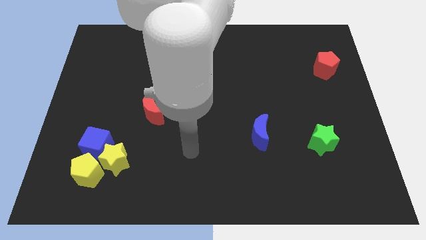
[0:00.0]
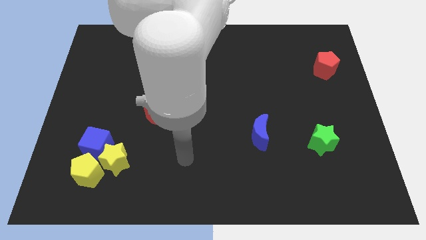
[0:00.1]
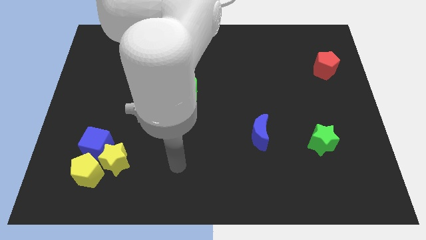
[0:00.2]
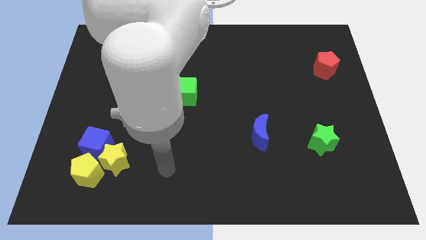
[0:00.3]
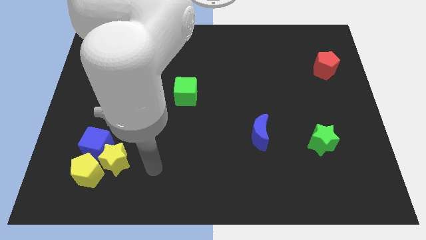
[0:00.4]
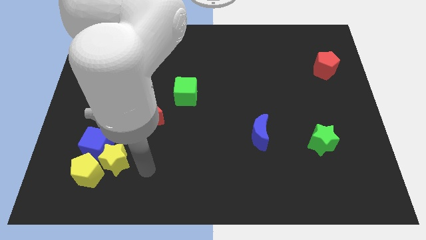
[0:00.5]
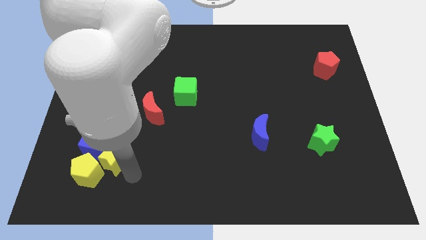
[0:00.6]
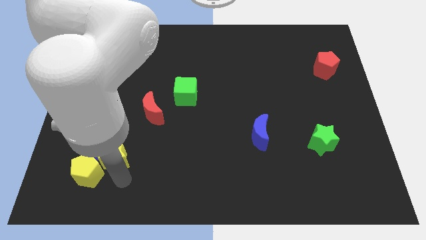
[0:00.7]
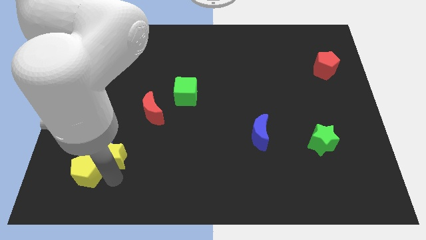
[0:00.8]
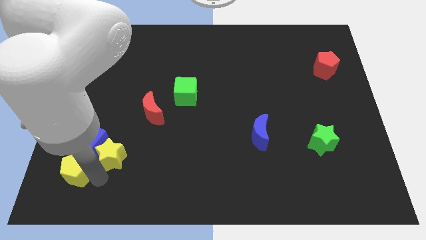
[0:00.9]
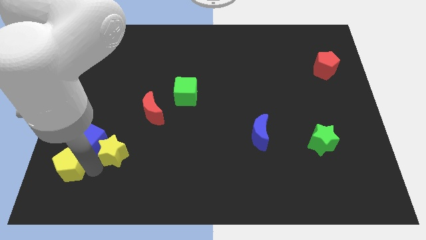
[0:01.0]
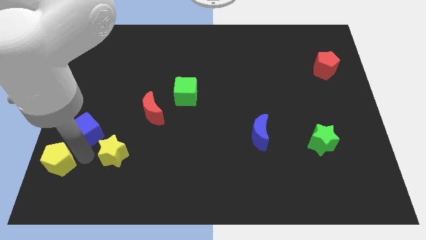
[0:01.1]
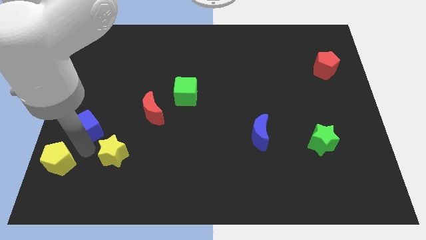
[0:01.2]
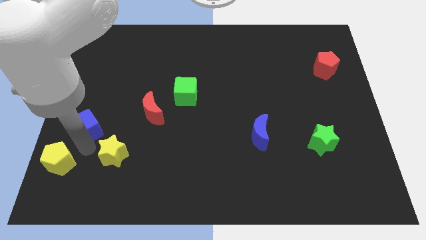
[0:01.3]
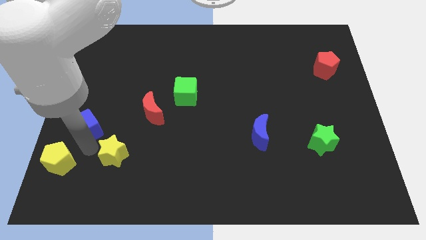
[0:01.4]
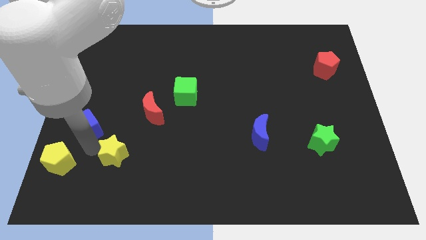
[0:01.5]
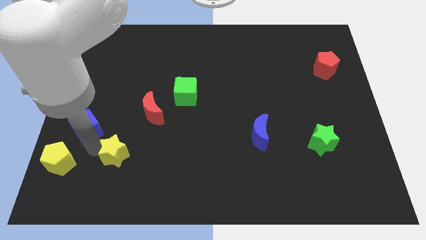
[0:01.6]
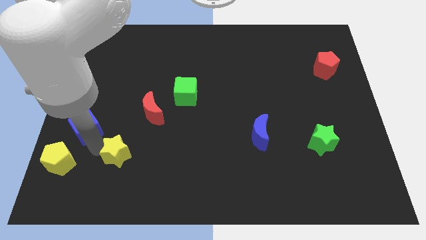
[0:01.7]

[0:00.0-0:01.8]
separate the yellow star from the yellow pentagon and blue cube

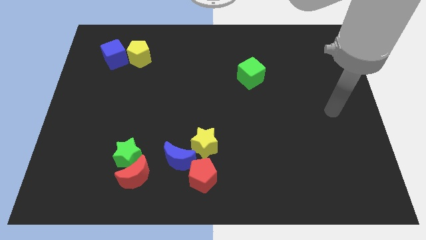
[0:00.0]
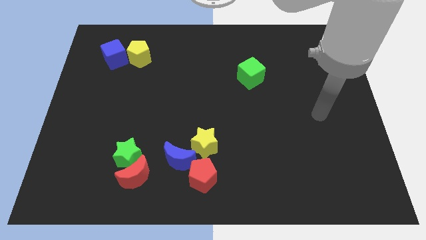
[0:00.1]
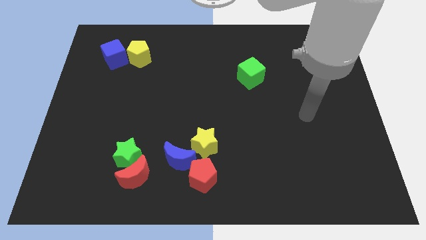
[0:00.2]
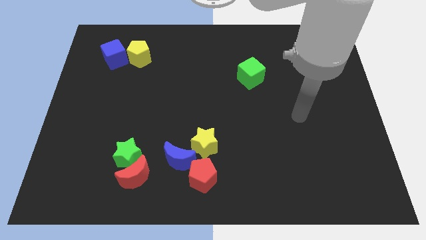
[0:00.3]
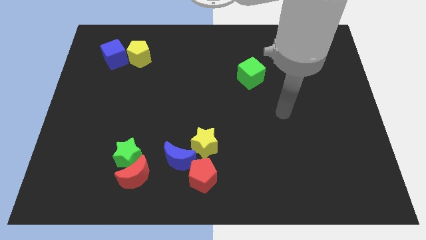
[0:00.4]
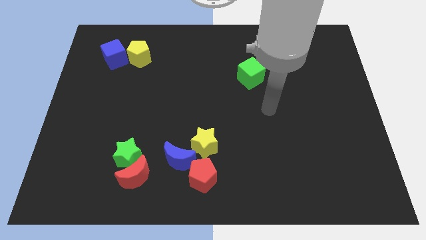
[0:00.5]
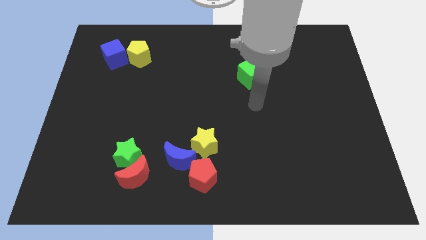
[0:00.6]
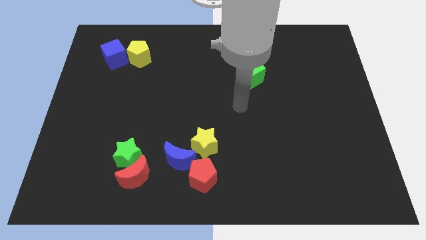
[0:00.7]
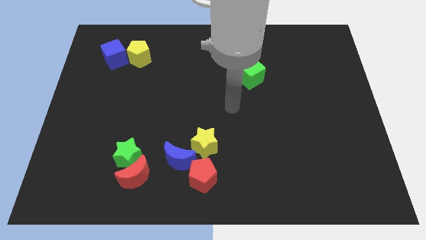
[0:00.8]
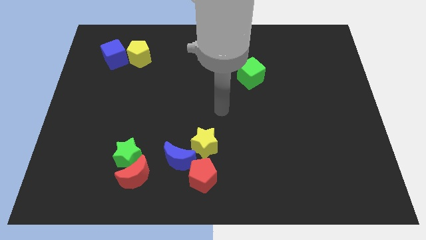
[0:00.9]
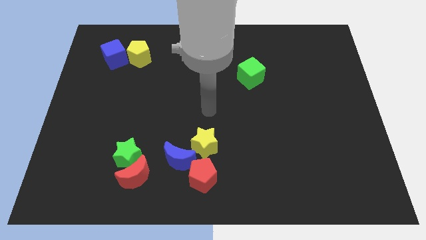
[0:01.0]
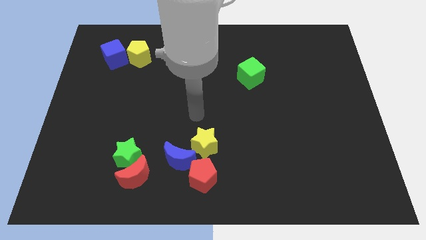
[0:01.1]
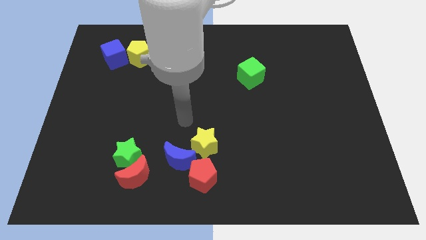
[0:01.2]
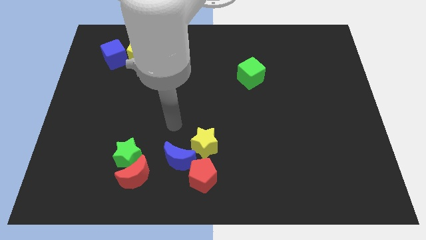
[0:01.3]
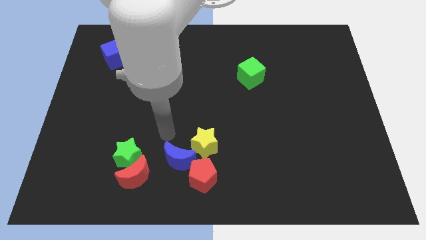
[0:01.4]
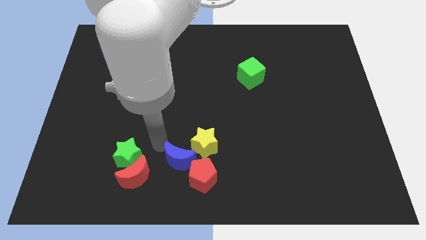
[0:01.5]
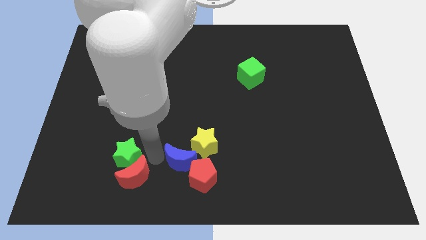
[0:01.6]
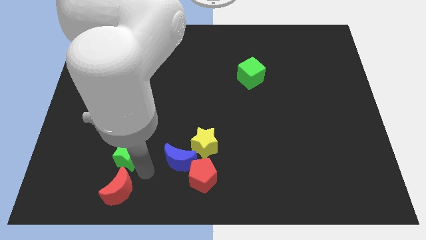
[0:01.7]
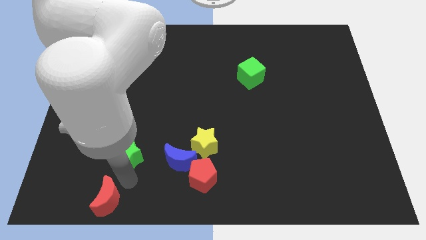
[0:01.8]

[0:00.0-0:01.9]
separate the green star from the red moon

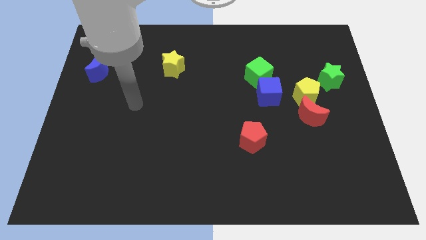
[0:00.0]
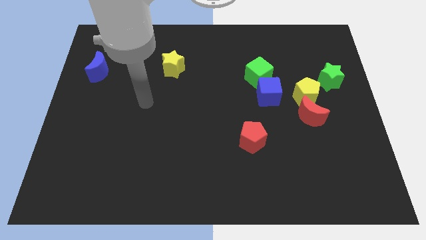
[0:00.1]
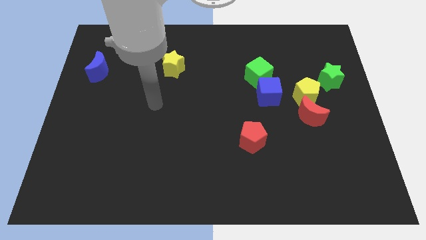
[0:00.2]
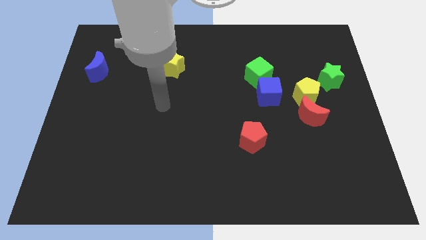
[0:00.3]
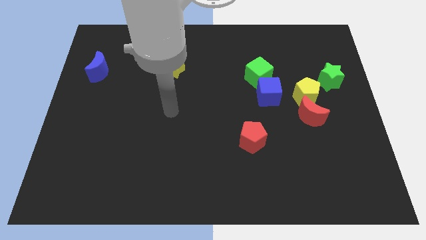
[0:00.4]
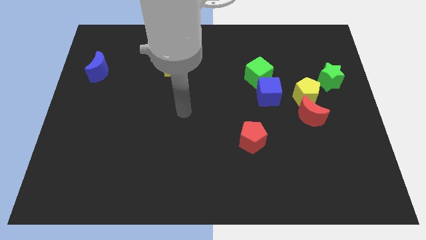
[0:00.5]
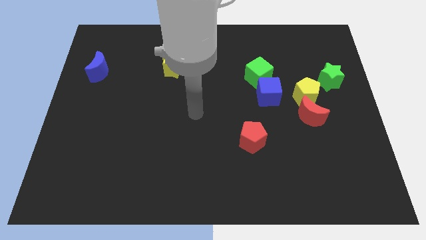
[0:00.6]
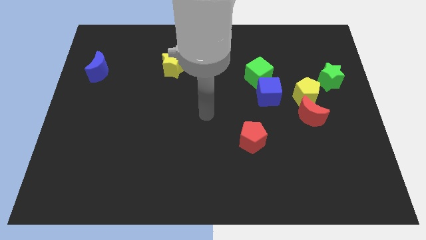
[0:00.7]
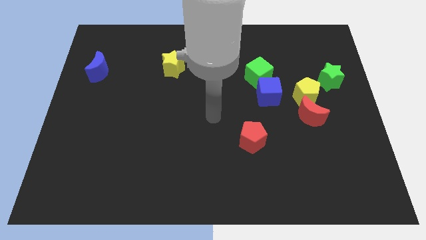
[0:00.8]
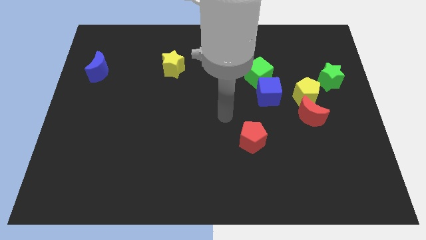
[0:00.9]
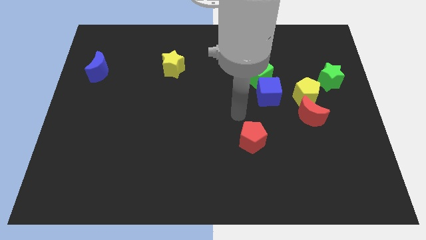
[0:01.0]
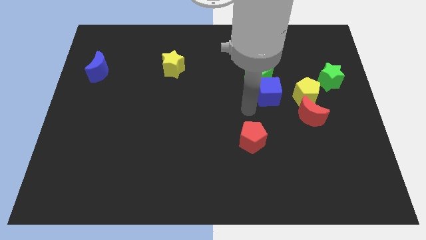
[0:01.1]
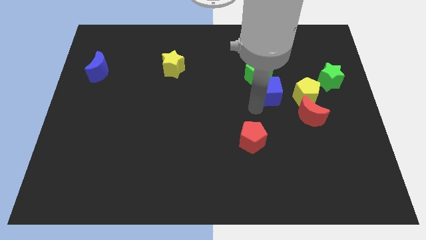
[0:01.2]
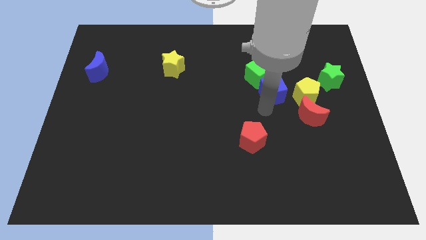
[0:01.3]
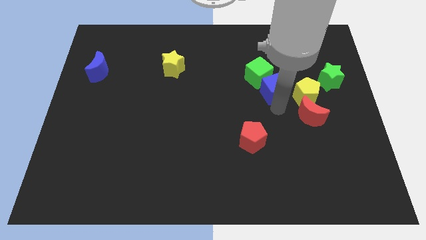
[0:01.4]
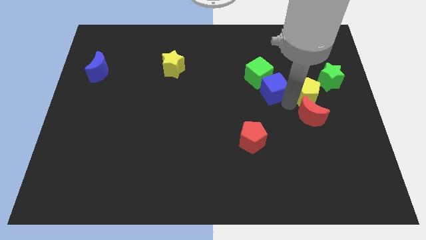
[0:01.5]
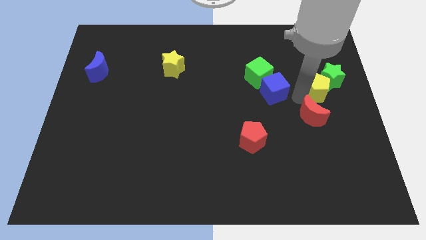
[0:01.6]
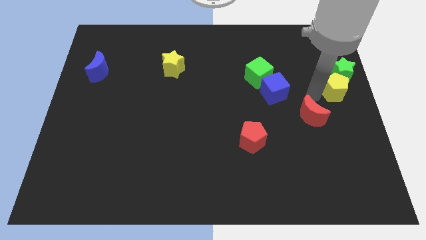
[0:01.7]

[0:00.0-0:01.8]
pull the red moon apart from the yellow pentagon

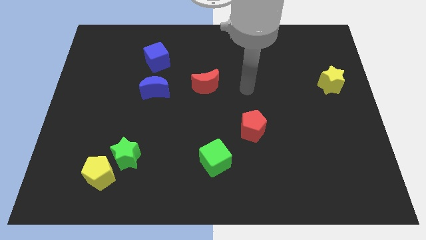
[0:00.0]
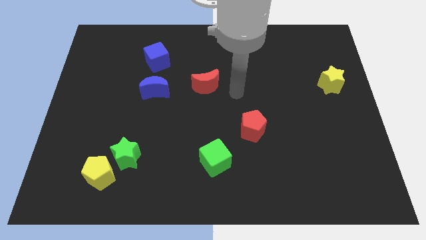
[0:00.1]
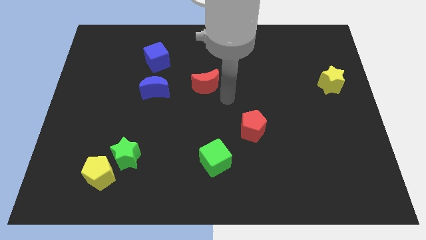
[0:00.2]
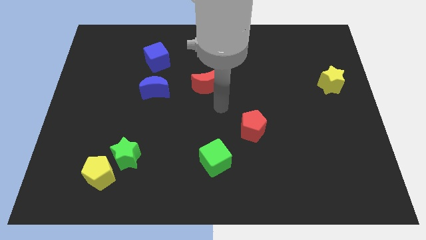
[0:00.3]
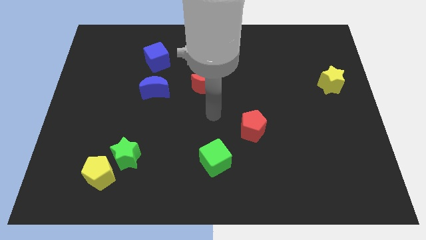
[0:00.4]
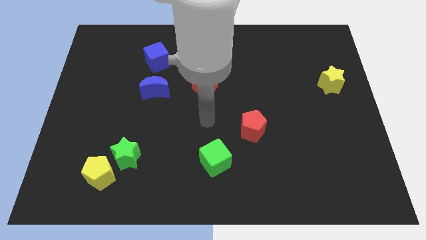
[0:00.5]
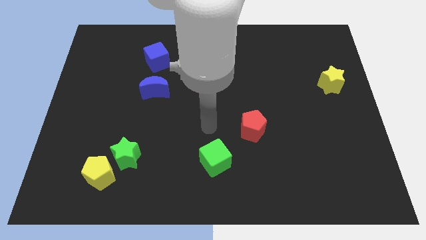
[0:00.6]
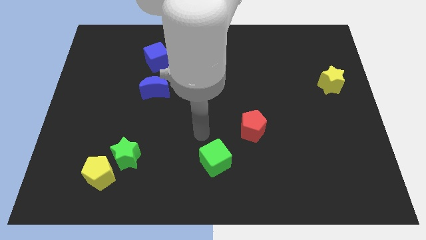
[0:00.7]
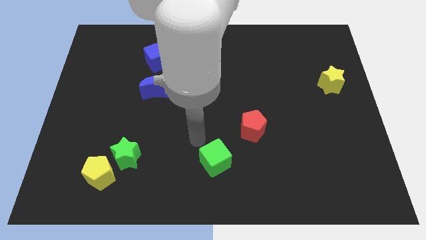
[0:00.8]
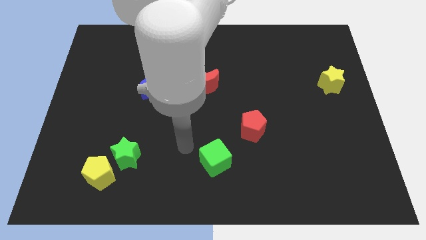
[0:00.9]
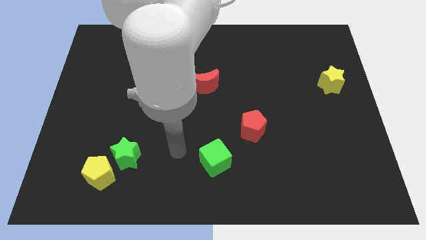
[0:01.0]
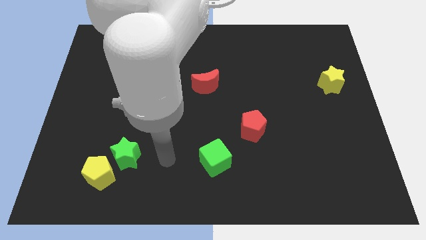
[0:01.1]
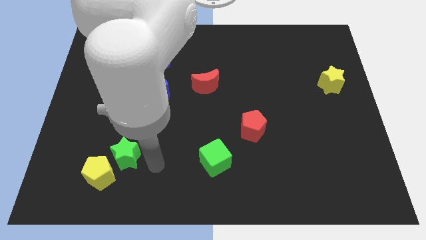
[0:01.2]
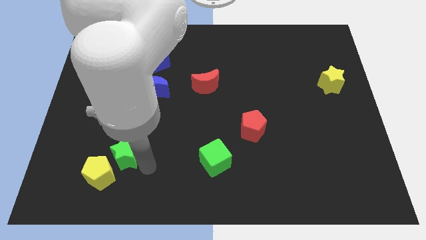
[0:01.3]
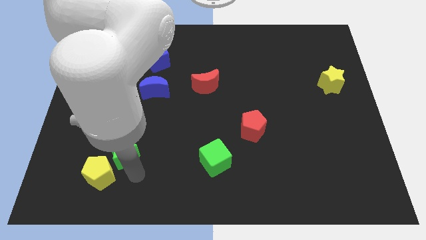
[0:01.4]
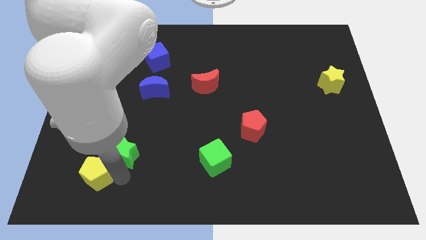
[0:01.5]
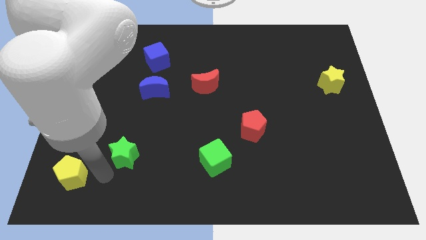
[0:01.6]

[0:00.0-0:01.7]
move the green star away from the yellow pentagon

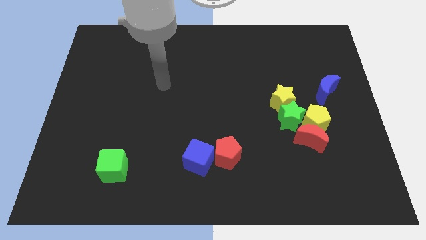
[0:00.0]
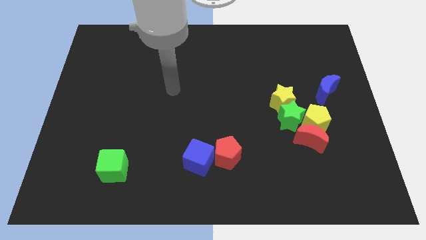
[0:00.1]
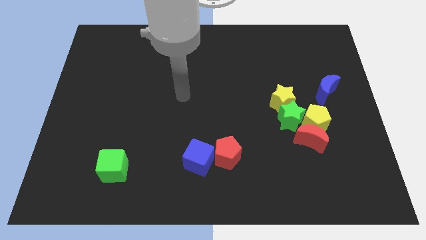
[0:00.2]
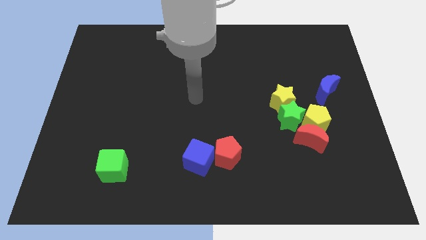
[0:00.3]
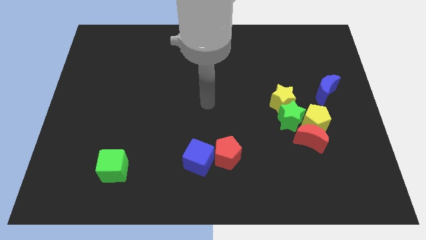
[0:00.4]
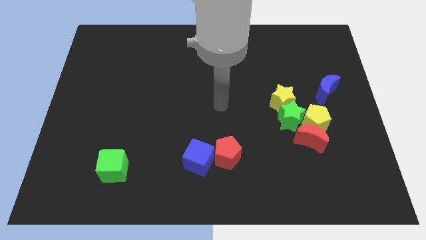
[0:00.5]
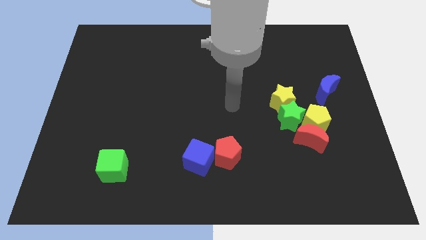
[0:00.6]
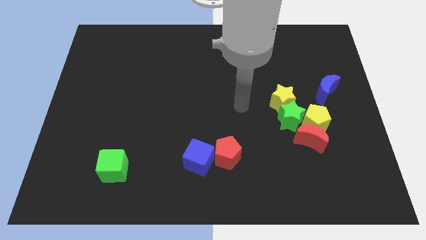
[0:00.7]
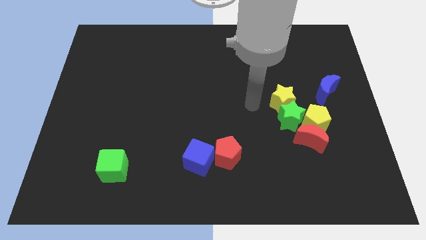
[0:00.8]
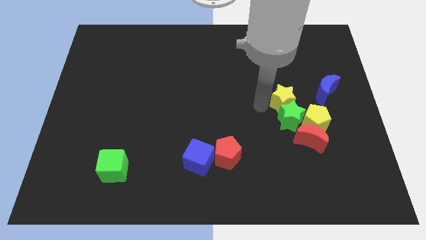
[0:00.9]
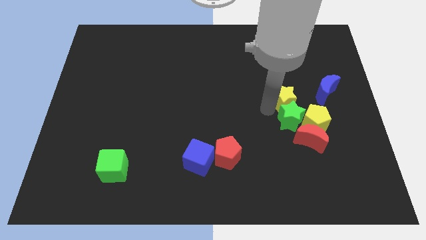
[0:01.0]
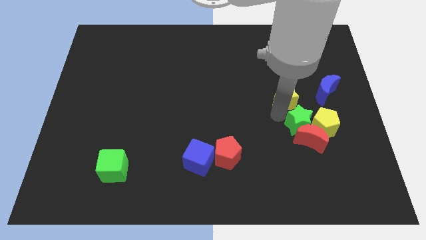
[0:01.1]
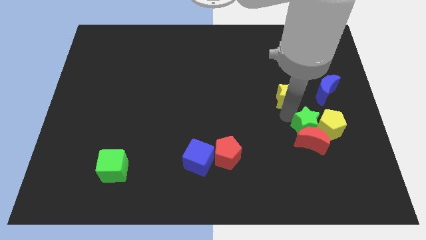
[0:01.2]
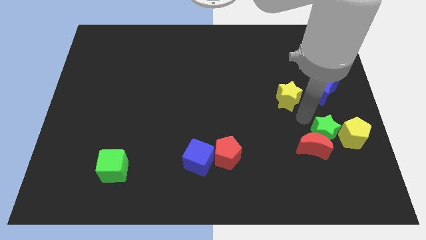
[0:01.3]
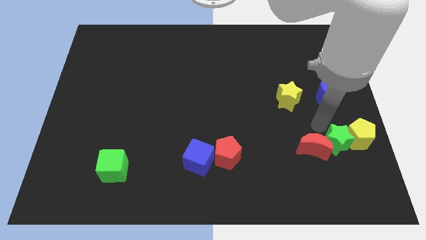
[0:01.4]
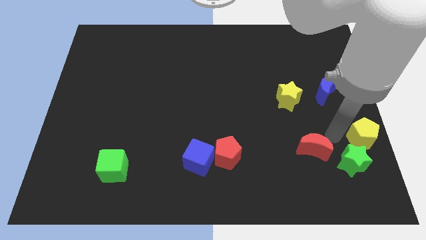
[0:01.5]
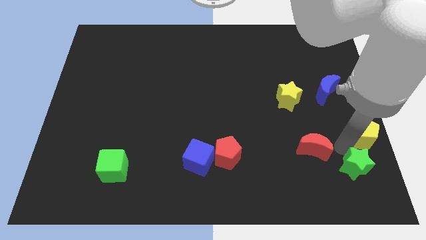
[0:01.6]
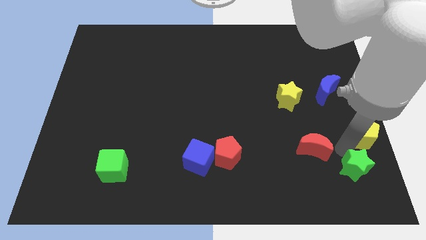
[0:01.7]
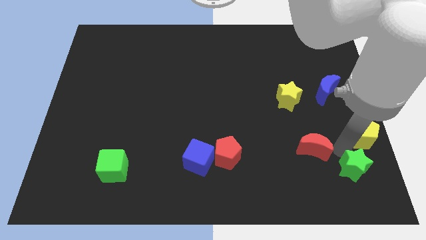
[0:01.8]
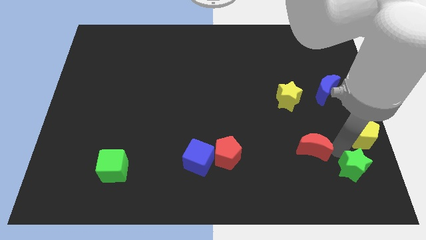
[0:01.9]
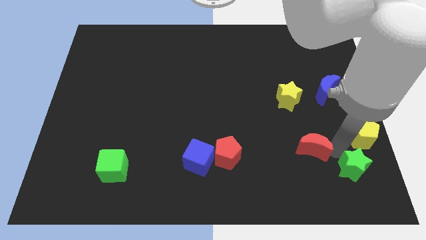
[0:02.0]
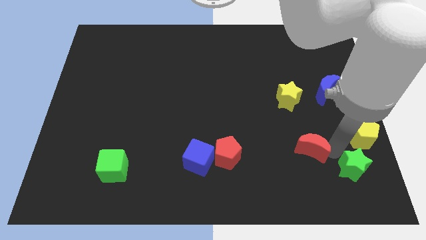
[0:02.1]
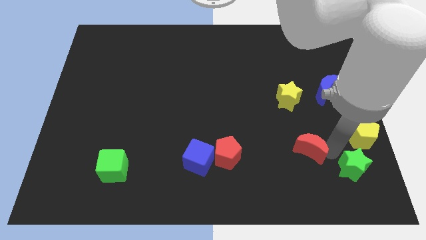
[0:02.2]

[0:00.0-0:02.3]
separate the red moon from the yellow pentagon and green star
